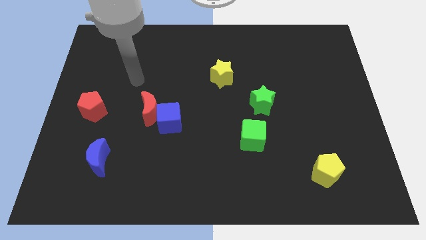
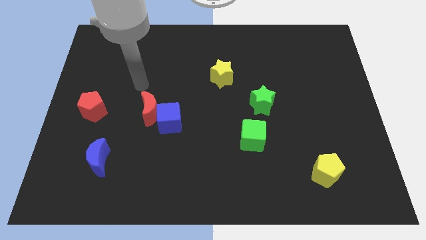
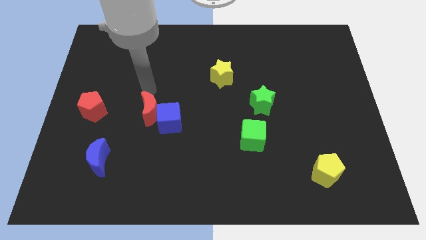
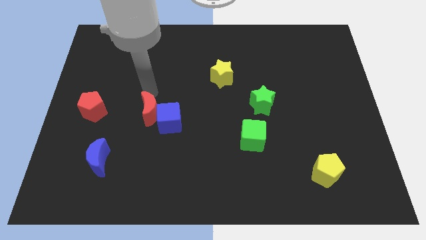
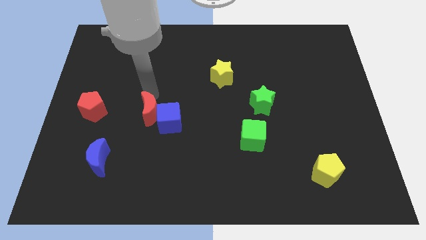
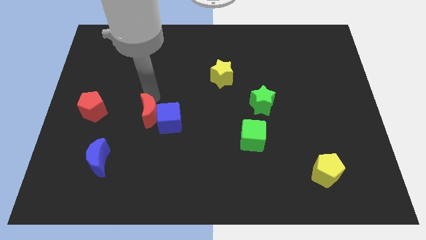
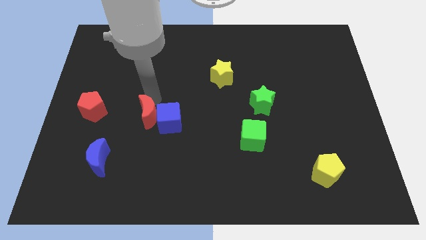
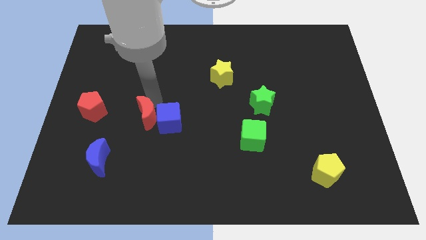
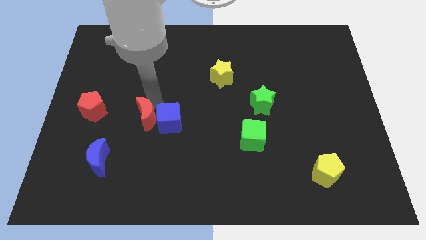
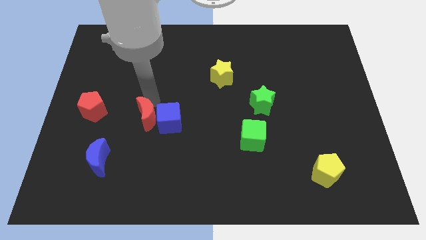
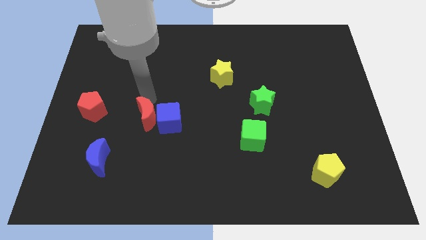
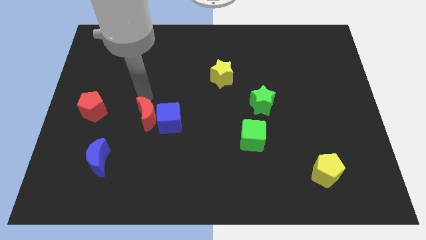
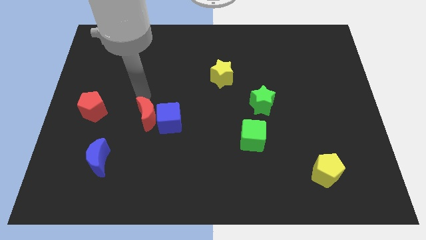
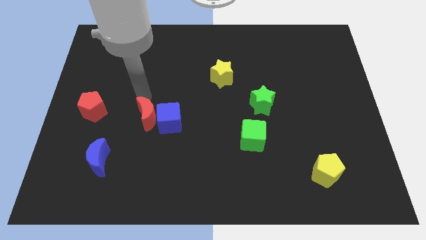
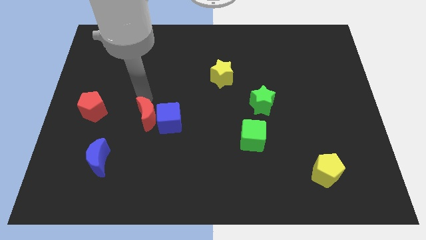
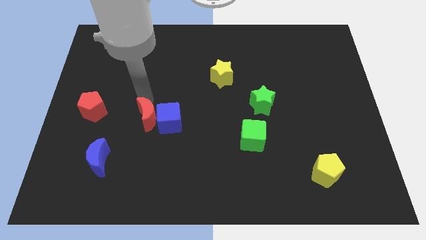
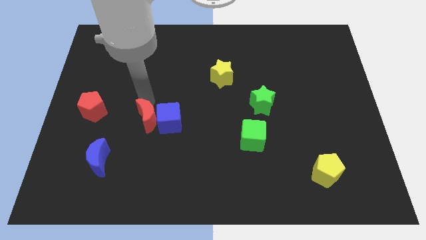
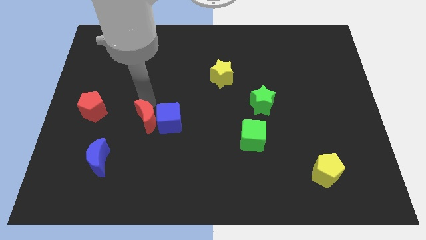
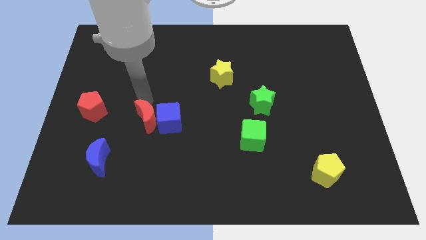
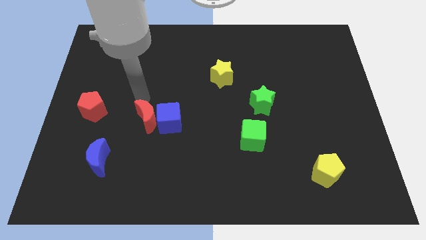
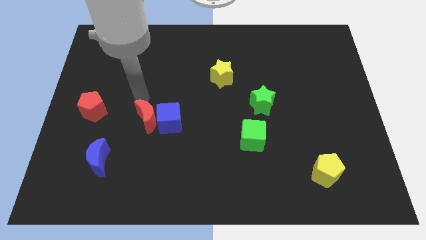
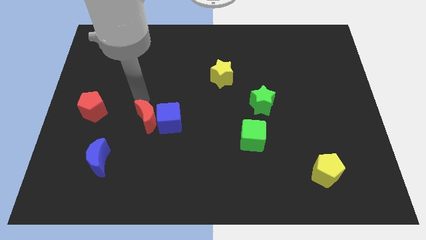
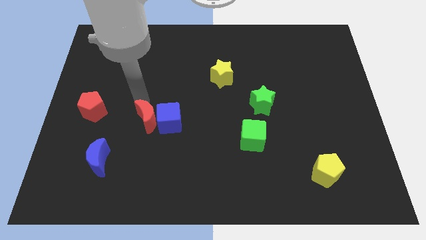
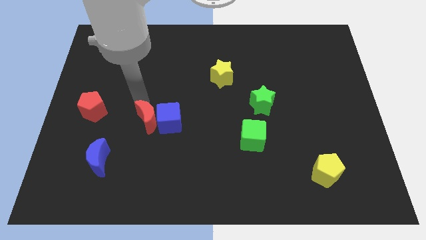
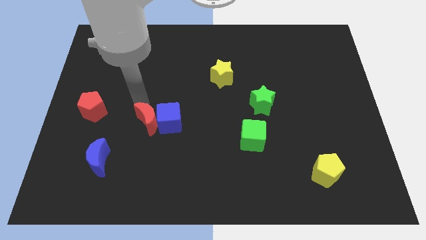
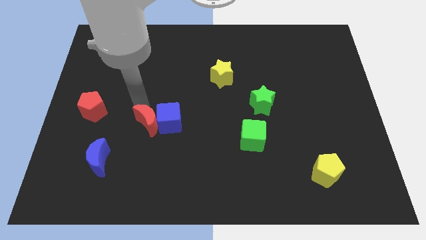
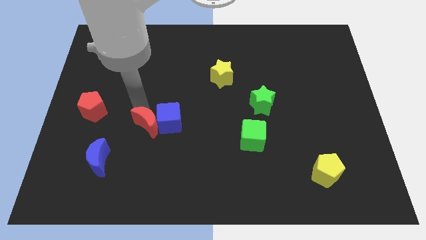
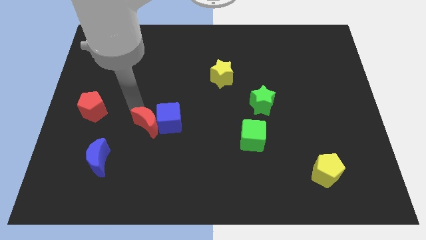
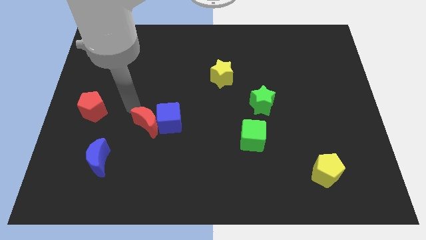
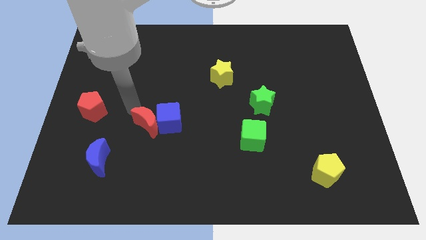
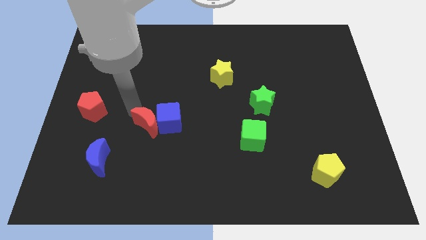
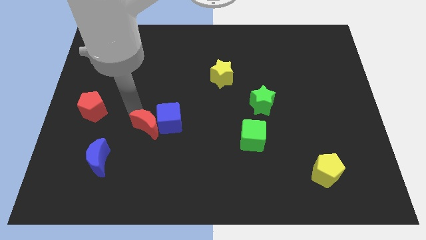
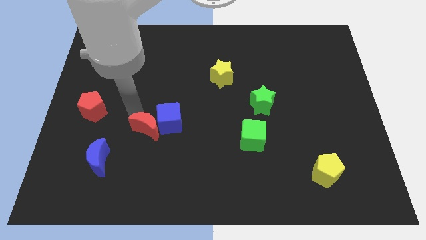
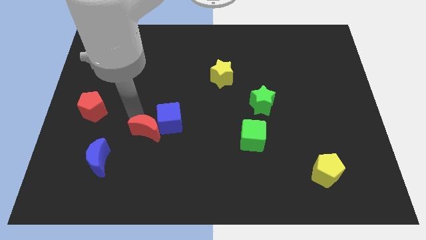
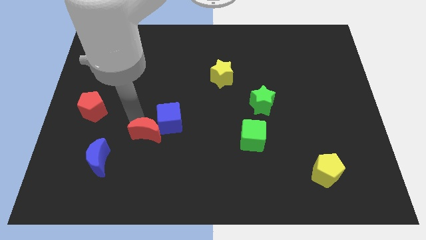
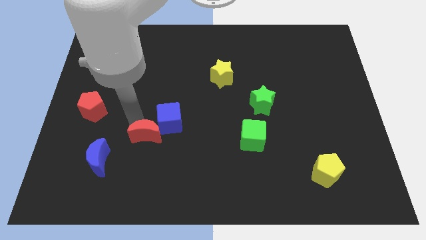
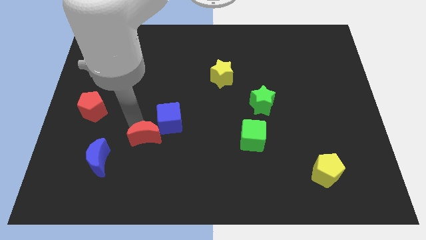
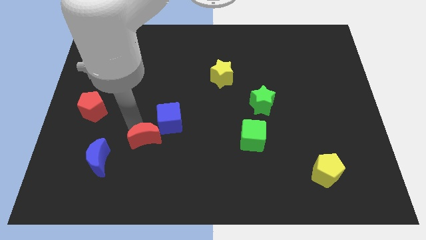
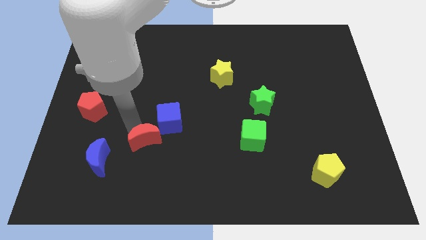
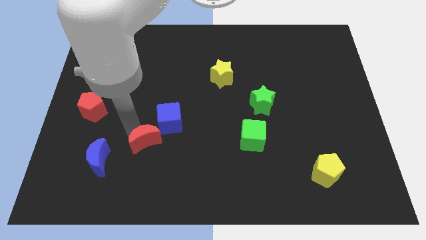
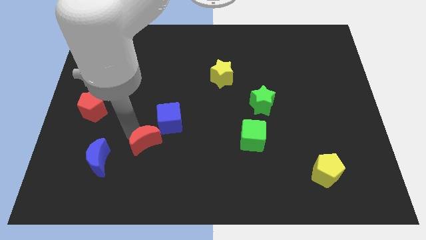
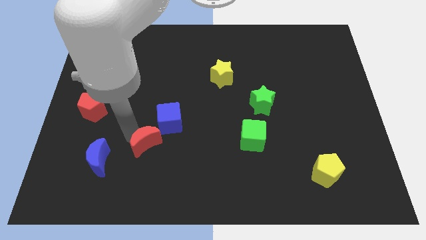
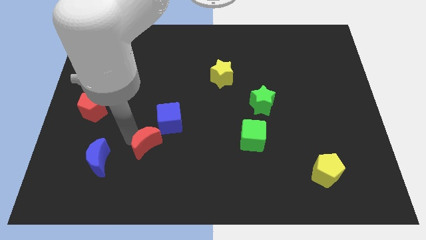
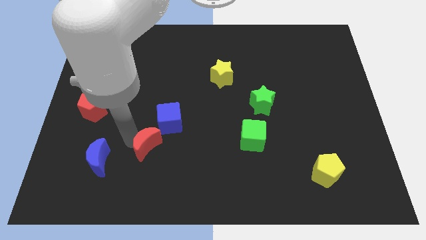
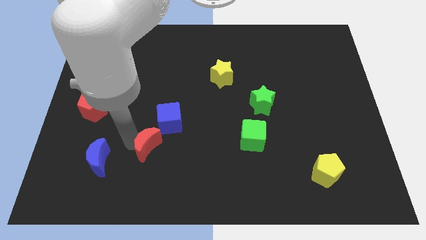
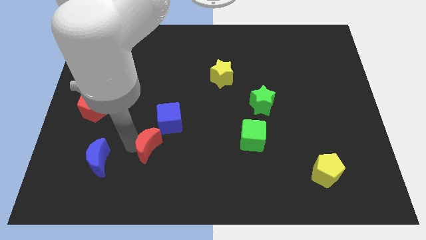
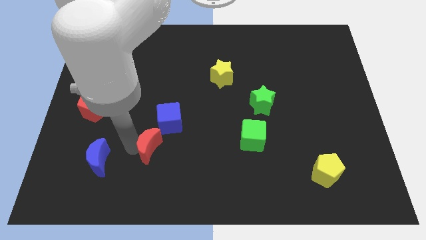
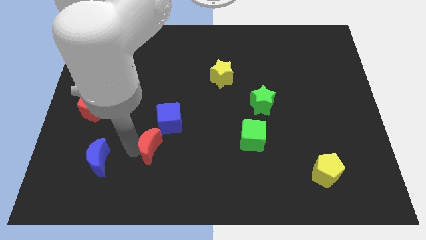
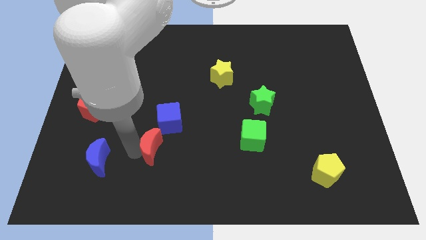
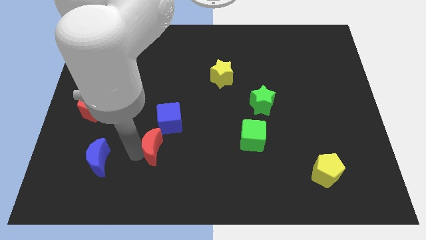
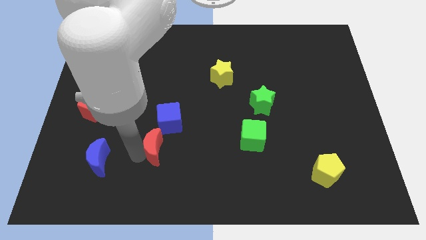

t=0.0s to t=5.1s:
slide the red moon downwards and to the right a little bit

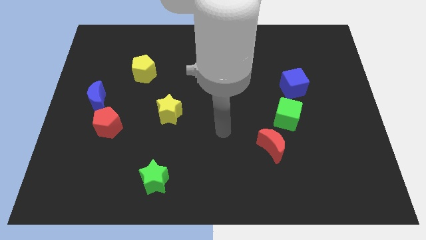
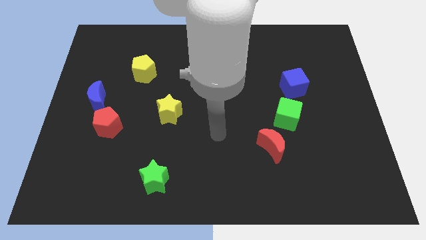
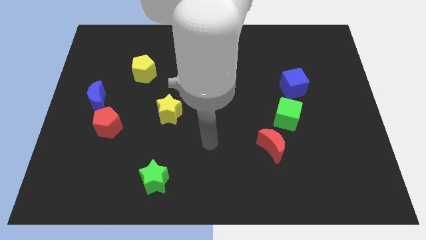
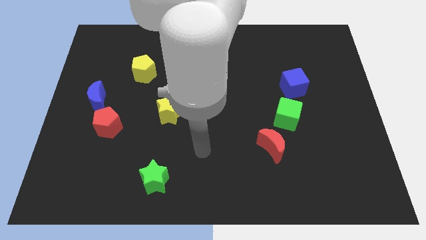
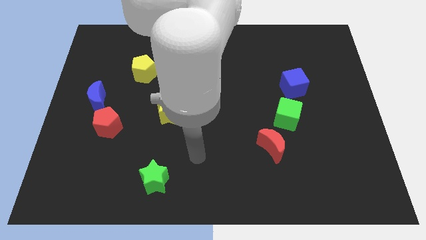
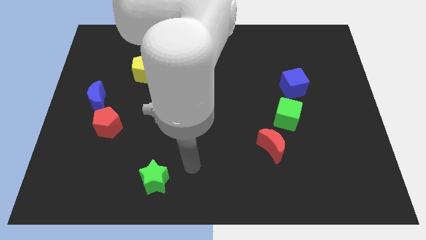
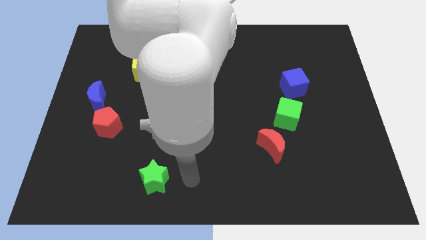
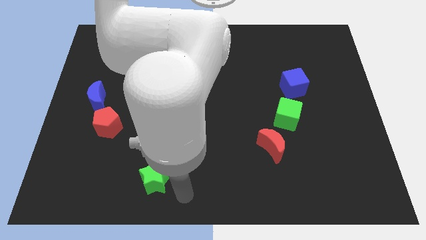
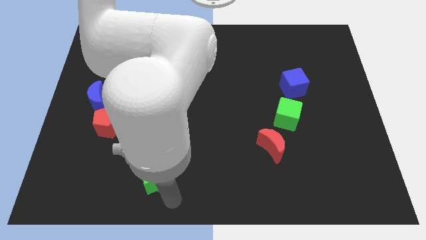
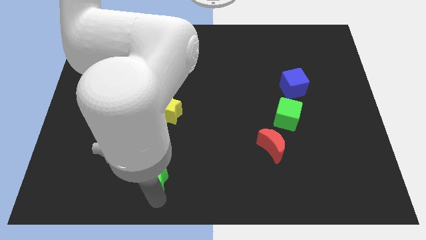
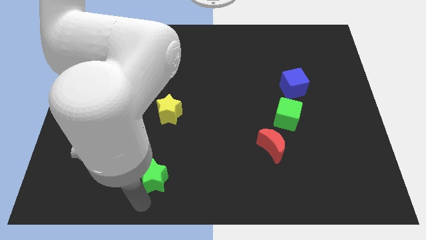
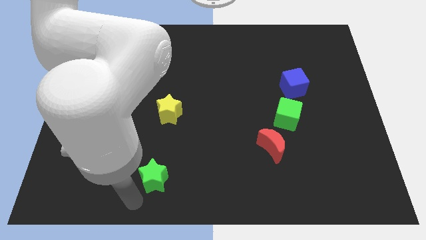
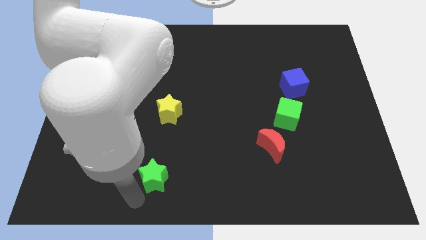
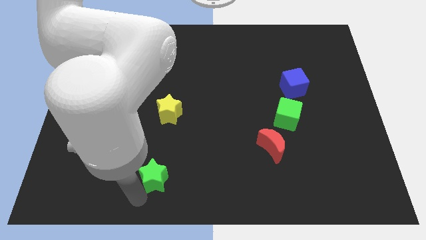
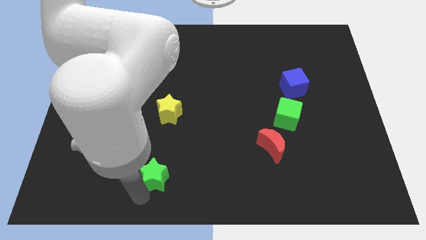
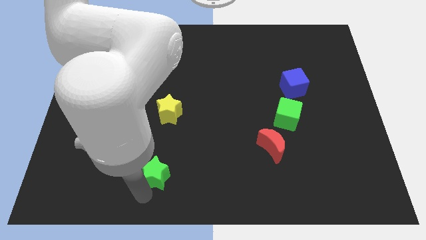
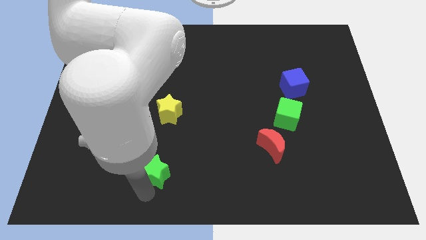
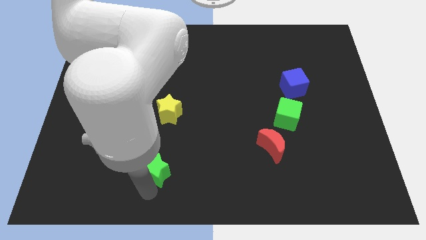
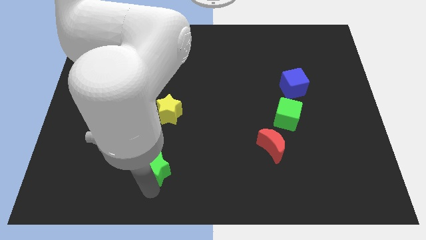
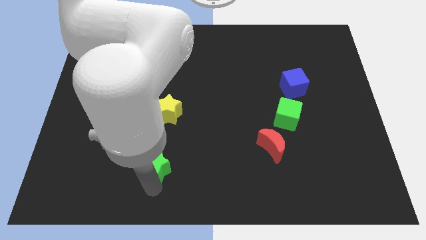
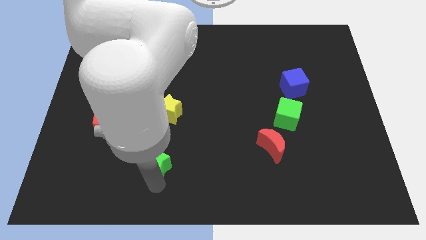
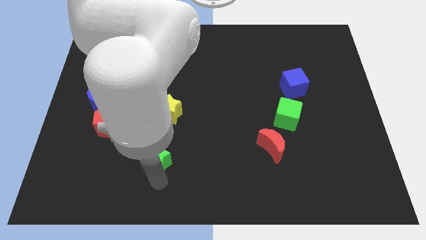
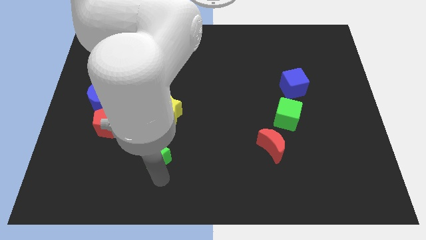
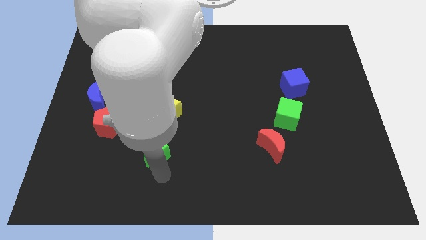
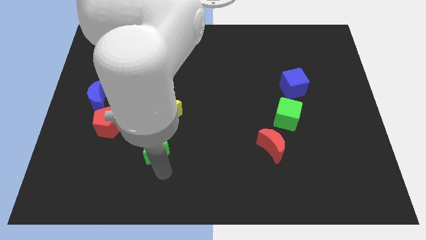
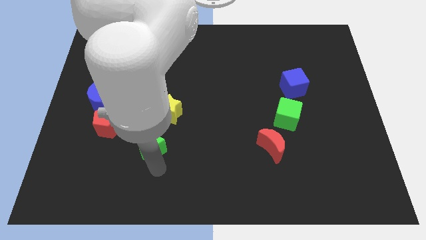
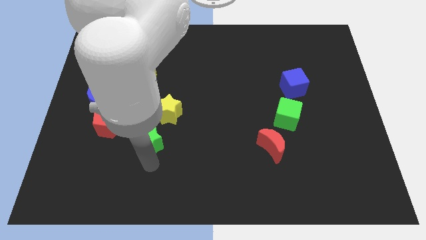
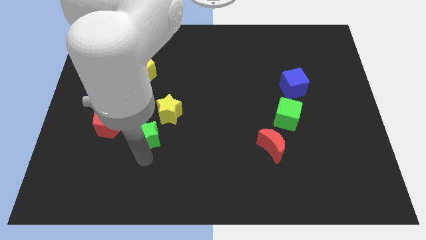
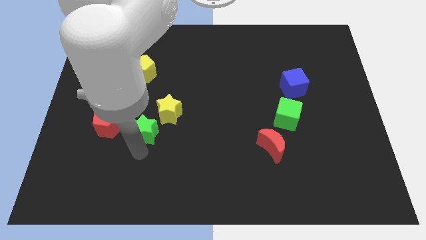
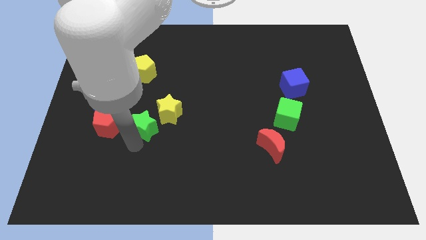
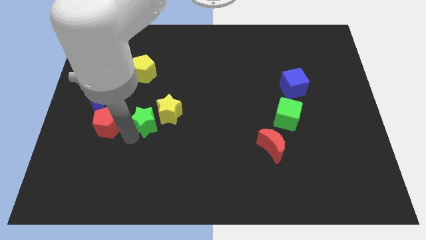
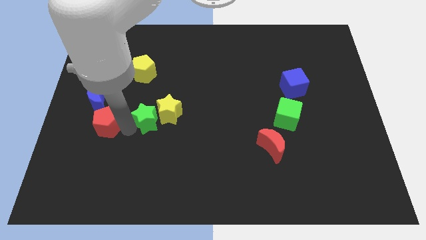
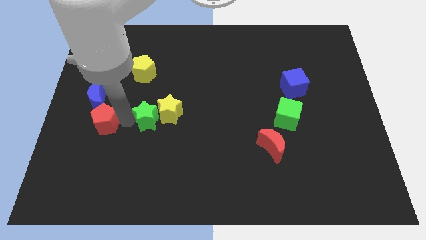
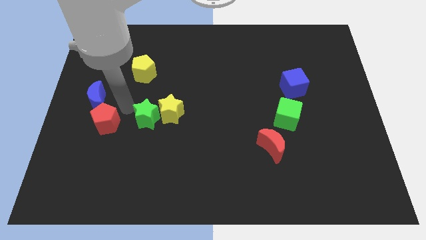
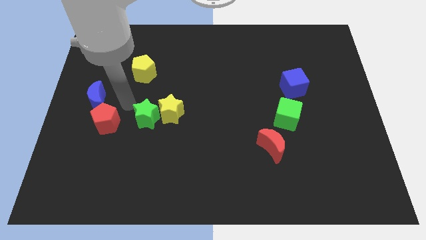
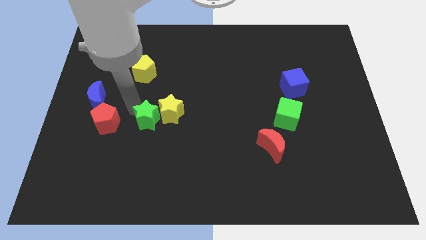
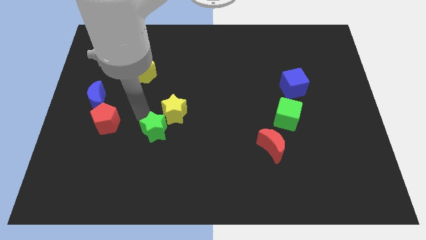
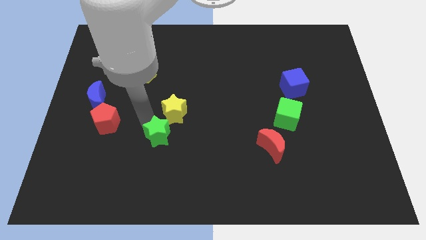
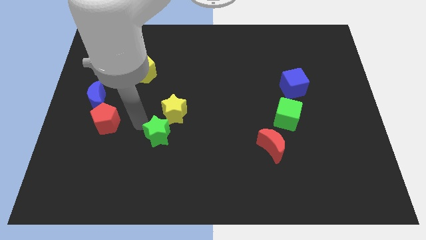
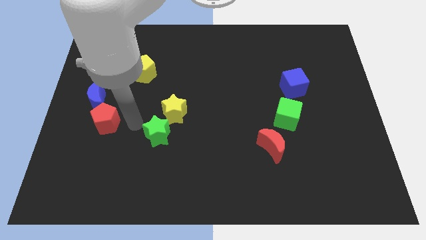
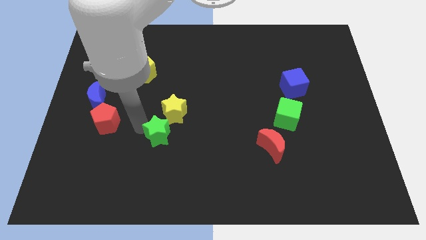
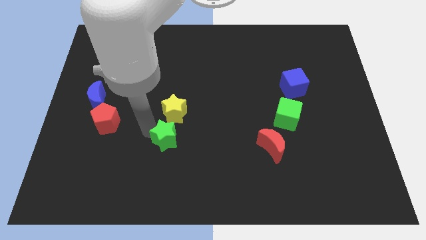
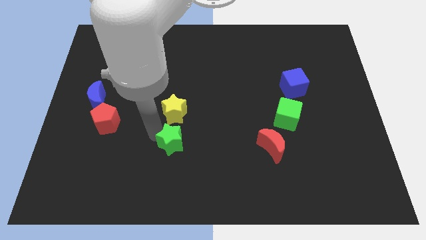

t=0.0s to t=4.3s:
move the green star a little upwards and right
